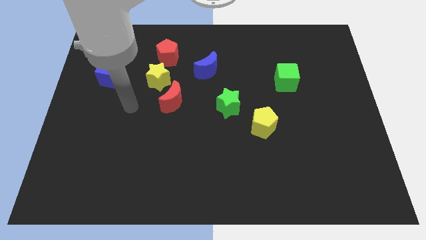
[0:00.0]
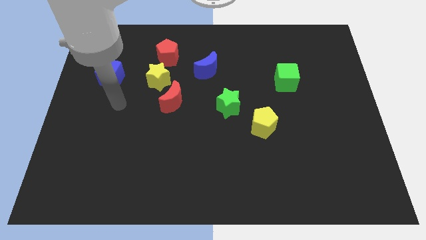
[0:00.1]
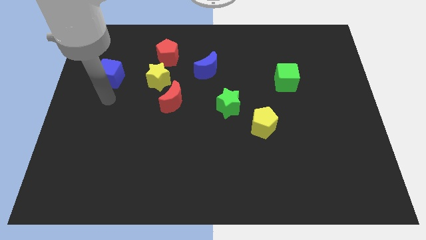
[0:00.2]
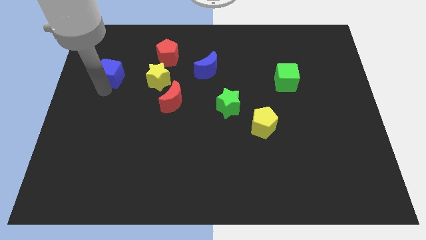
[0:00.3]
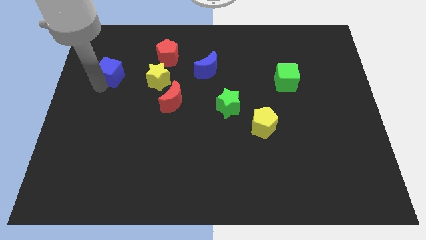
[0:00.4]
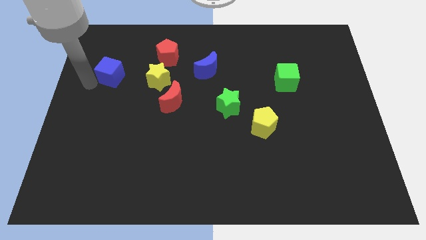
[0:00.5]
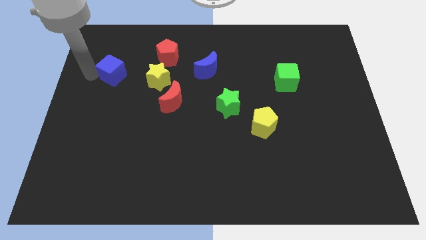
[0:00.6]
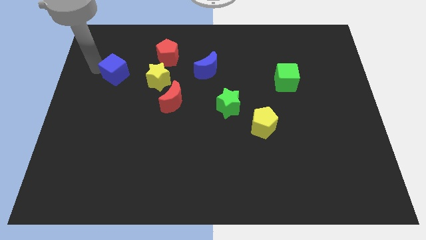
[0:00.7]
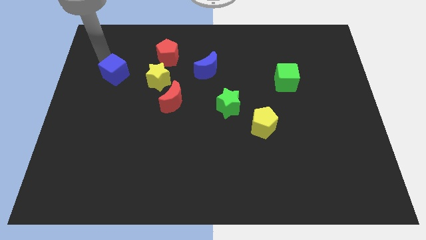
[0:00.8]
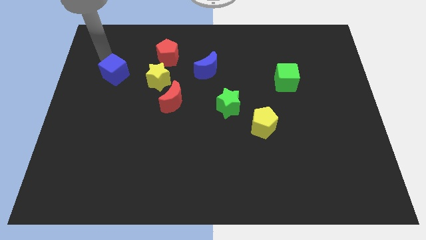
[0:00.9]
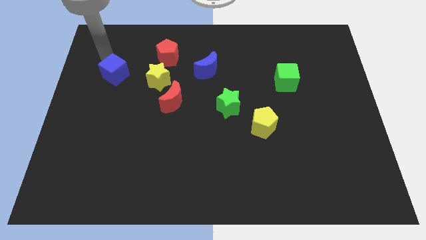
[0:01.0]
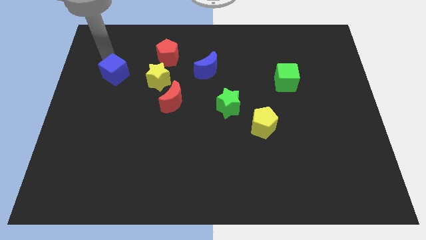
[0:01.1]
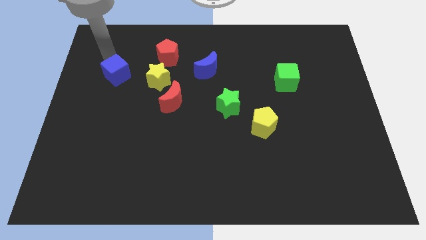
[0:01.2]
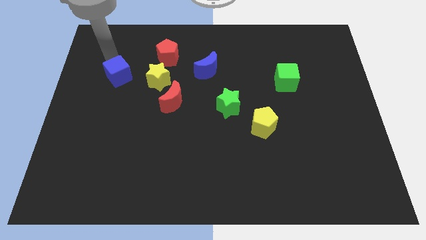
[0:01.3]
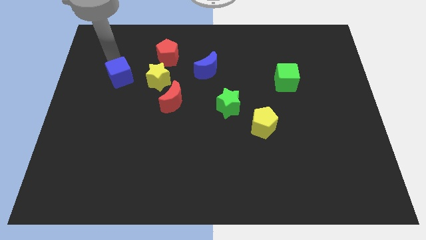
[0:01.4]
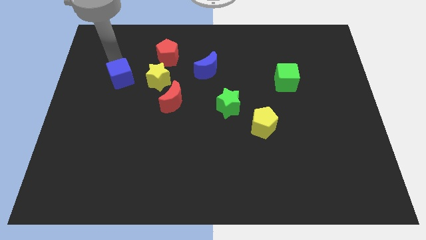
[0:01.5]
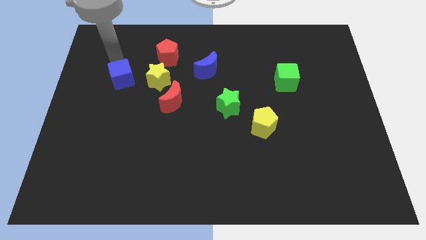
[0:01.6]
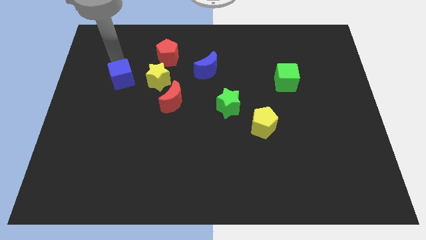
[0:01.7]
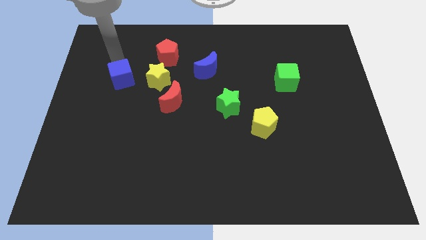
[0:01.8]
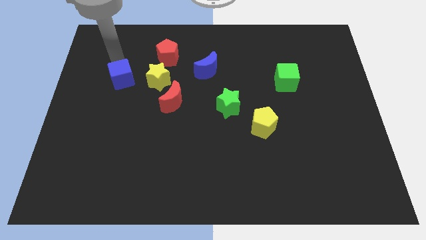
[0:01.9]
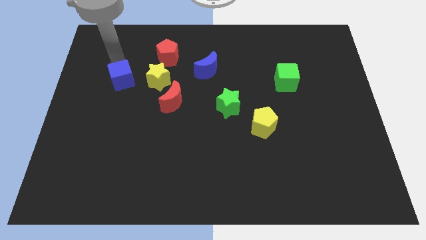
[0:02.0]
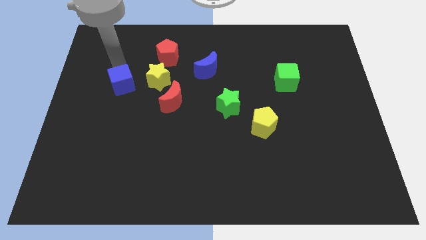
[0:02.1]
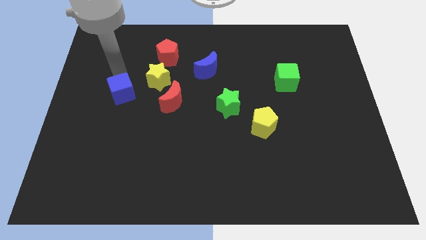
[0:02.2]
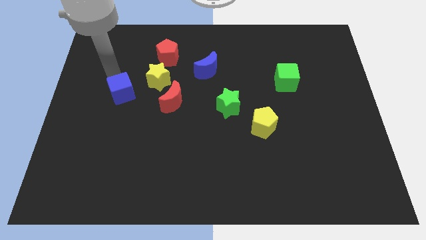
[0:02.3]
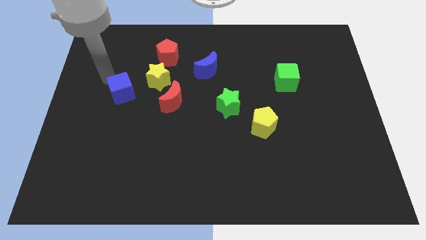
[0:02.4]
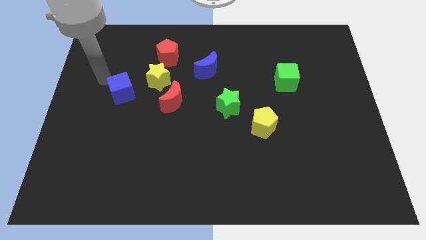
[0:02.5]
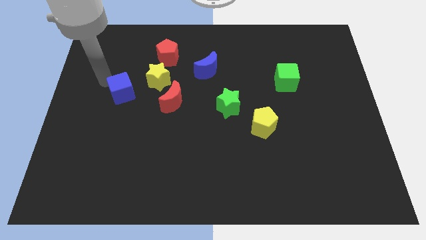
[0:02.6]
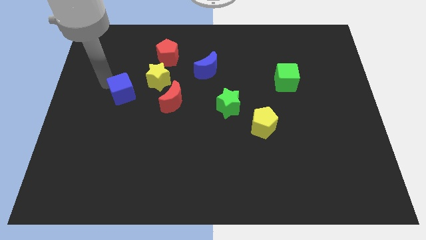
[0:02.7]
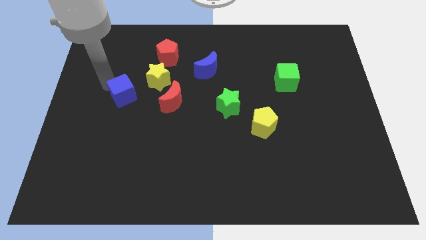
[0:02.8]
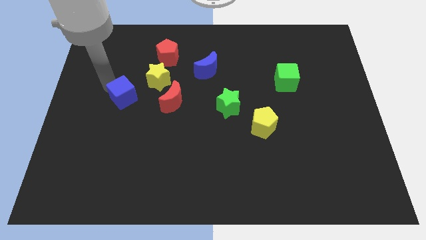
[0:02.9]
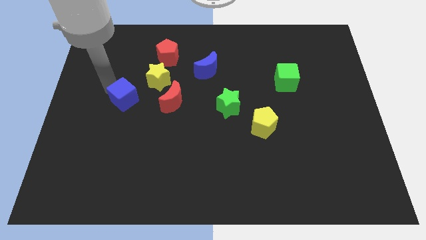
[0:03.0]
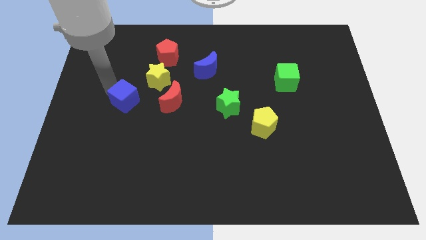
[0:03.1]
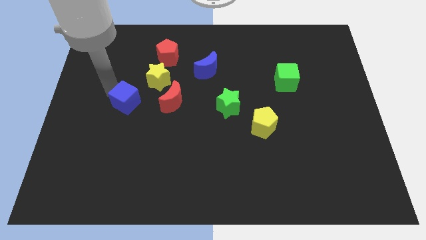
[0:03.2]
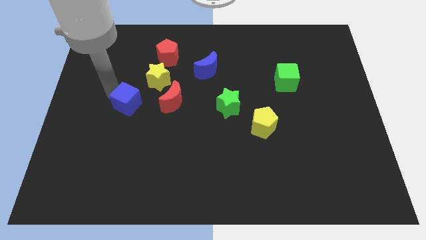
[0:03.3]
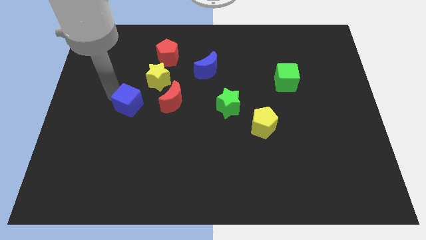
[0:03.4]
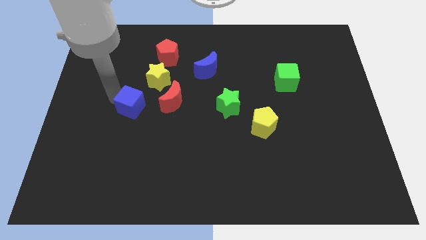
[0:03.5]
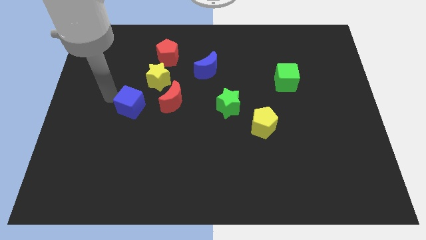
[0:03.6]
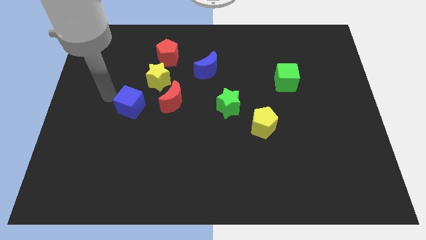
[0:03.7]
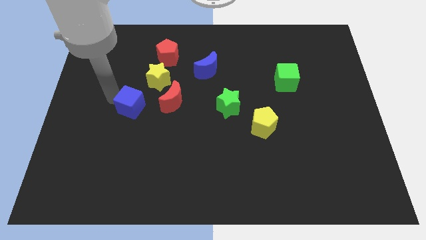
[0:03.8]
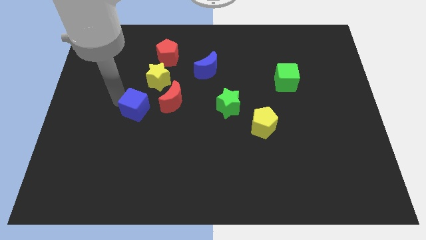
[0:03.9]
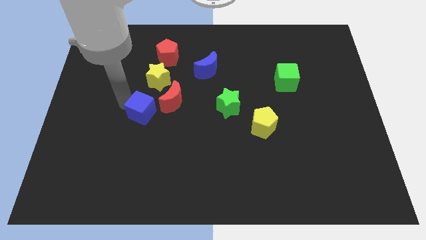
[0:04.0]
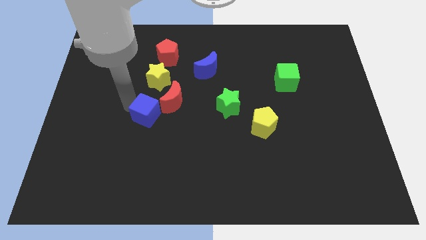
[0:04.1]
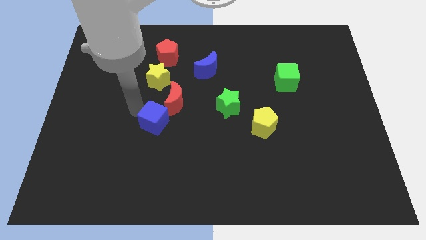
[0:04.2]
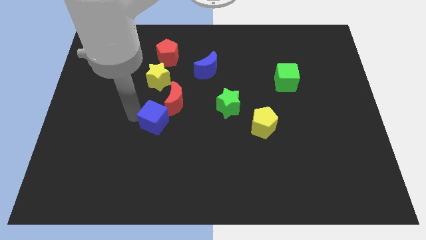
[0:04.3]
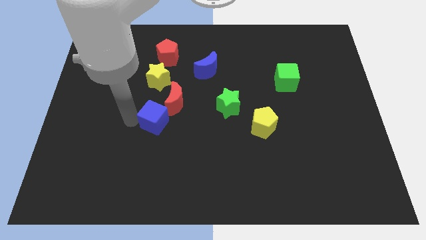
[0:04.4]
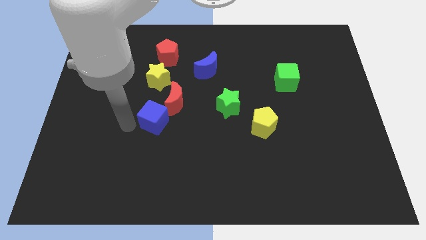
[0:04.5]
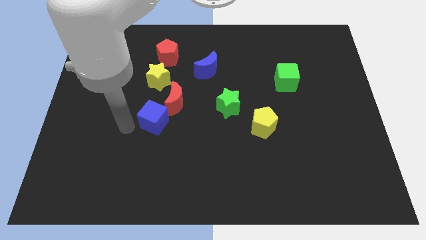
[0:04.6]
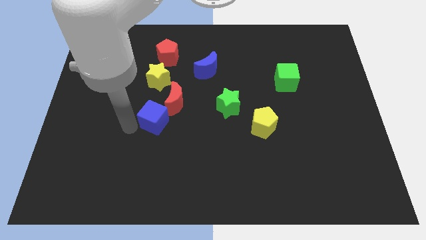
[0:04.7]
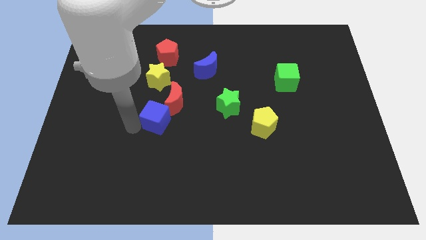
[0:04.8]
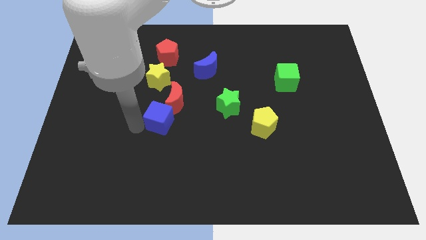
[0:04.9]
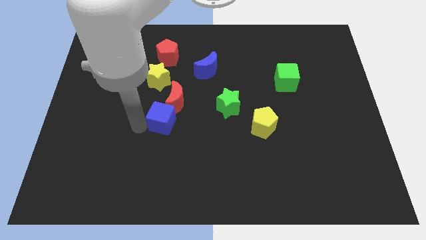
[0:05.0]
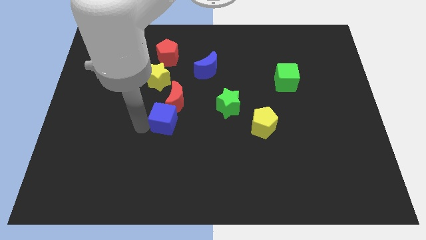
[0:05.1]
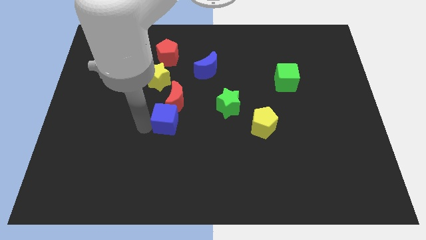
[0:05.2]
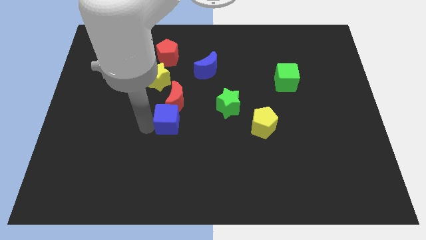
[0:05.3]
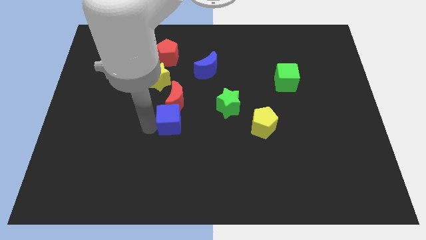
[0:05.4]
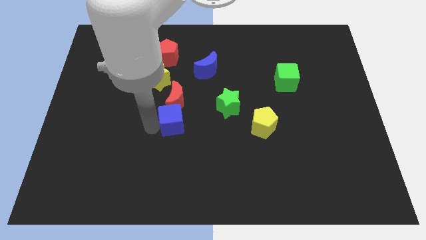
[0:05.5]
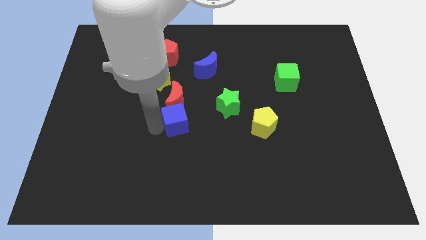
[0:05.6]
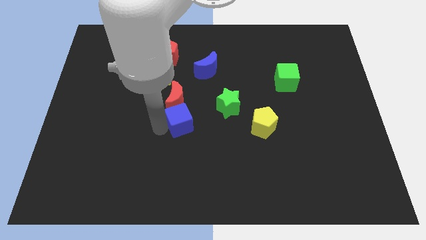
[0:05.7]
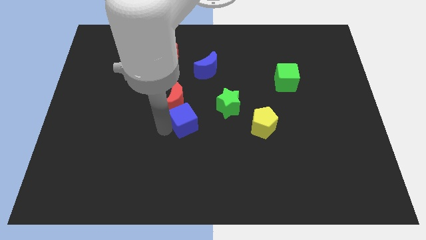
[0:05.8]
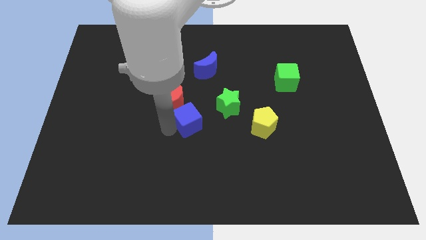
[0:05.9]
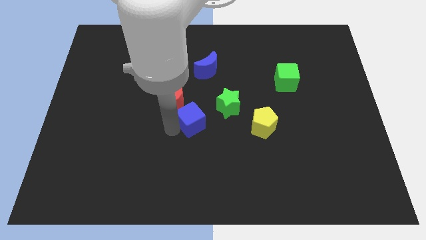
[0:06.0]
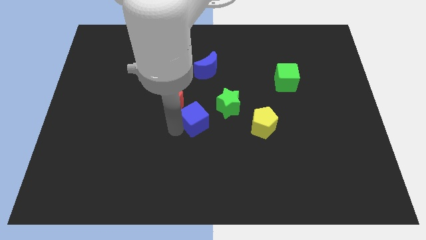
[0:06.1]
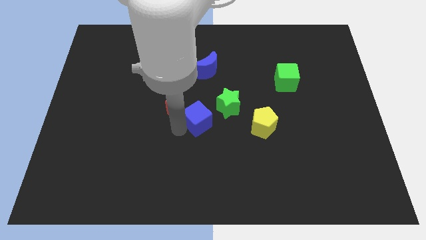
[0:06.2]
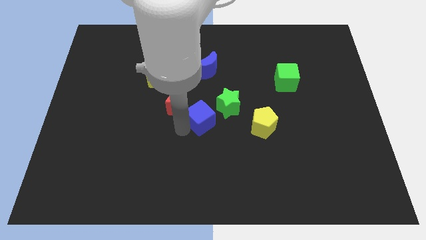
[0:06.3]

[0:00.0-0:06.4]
put the blue cube to the bottom of the blue moon

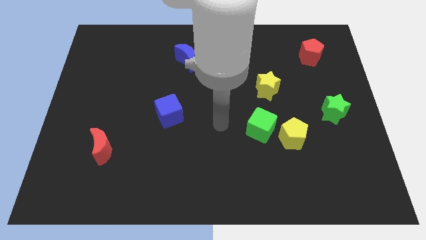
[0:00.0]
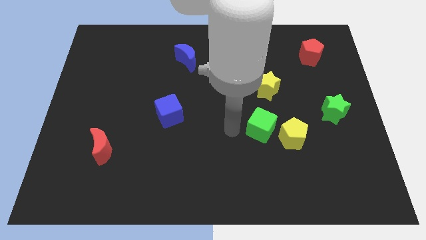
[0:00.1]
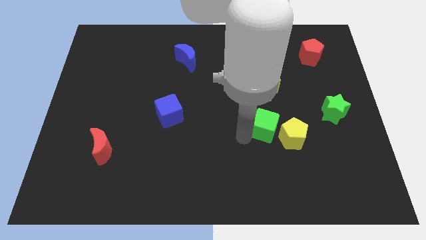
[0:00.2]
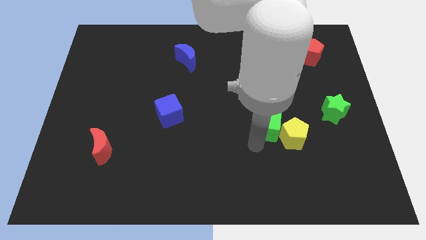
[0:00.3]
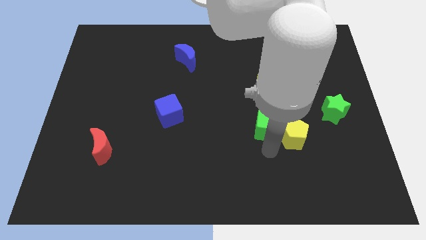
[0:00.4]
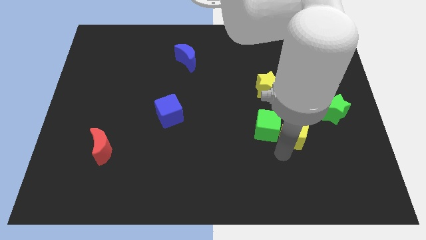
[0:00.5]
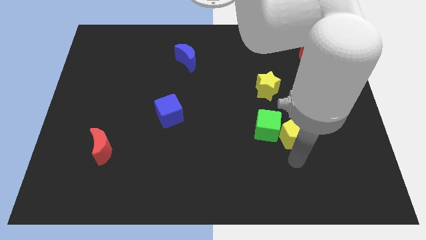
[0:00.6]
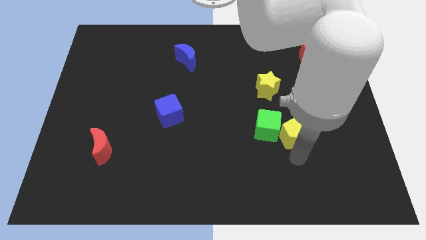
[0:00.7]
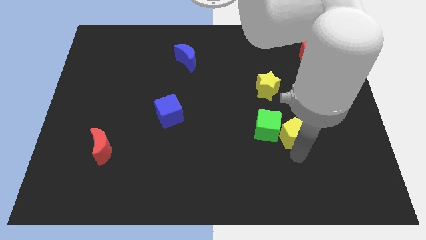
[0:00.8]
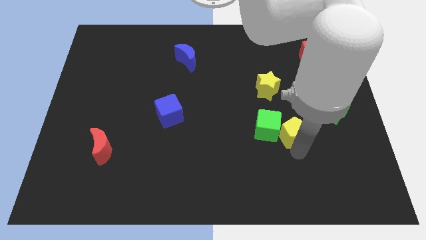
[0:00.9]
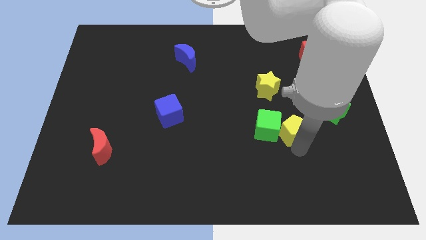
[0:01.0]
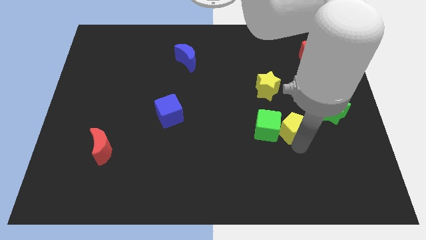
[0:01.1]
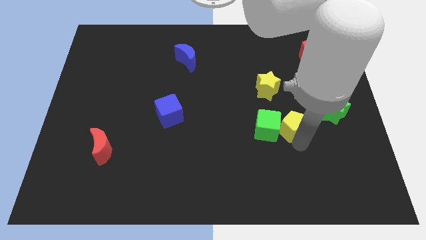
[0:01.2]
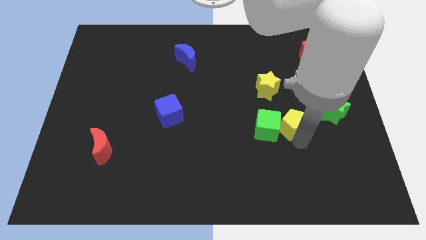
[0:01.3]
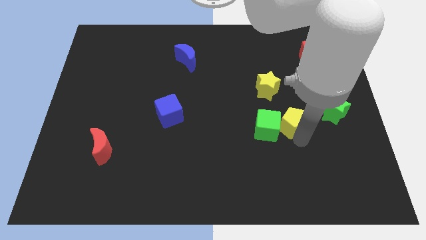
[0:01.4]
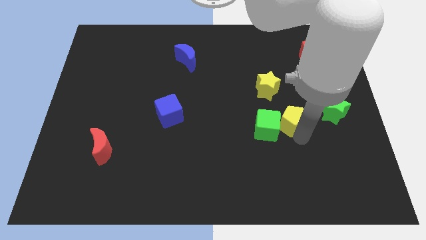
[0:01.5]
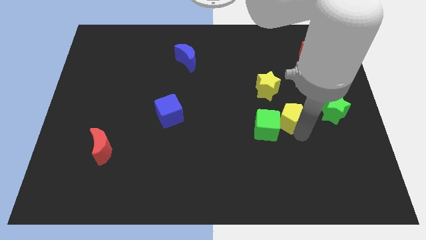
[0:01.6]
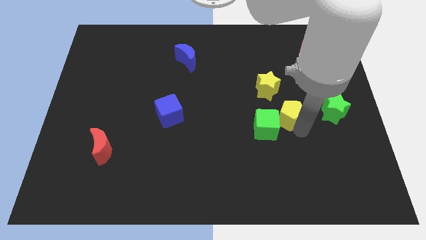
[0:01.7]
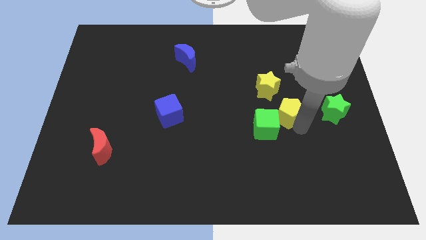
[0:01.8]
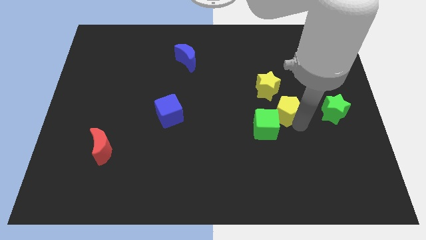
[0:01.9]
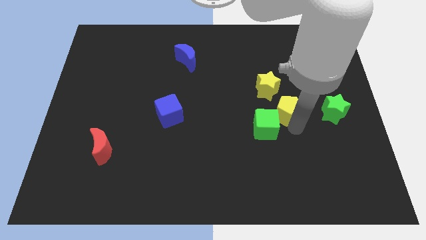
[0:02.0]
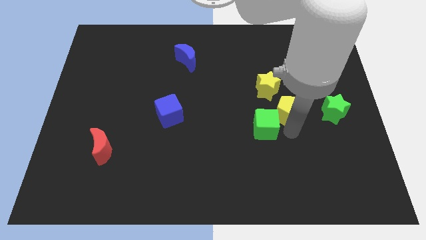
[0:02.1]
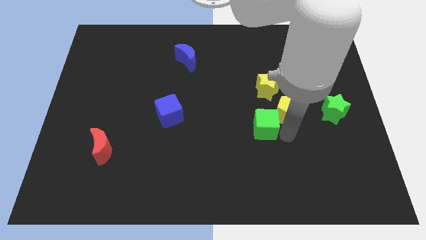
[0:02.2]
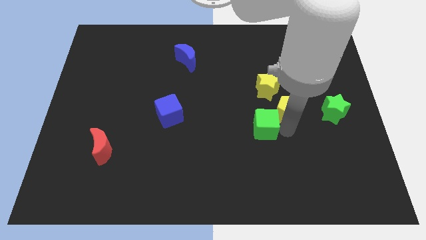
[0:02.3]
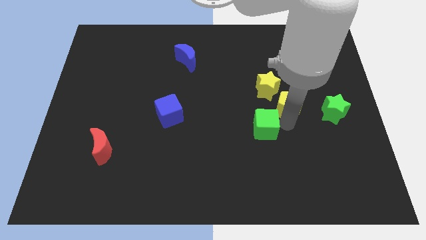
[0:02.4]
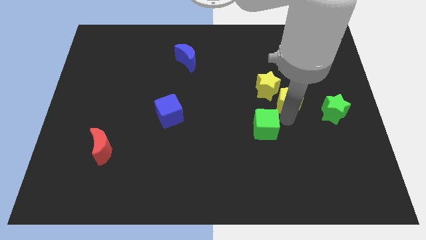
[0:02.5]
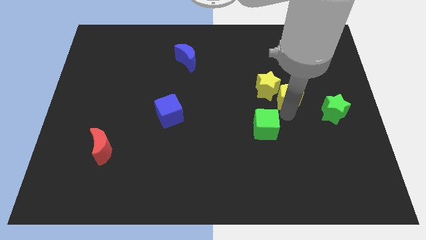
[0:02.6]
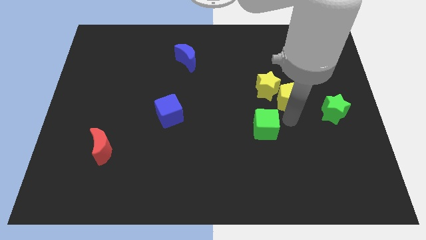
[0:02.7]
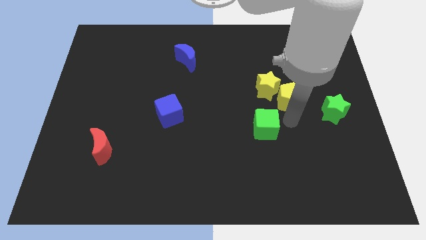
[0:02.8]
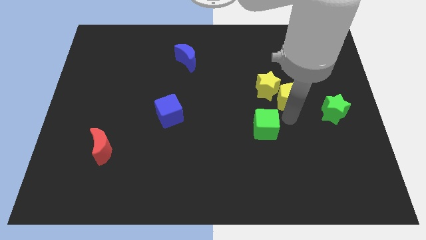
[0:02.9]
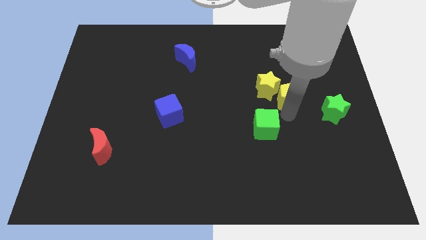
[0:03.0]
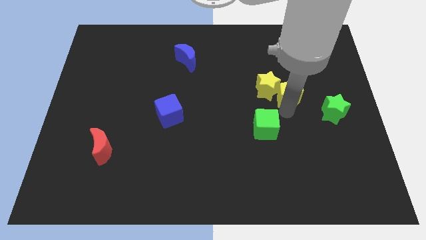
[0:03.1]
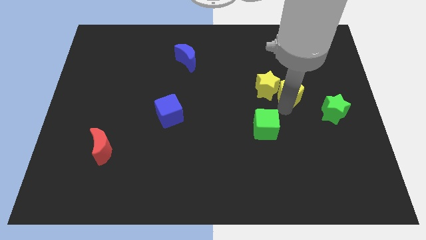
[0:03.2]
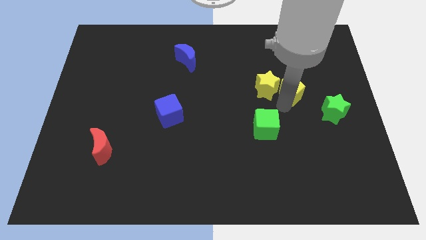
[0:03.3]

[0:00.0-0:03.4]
move the yellow pentagon to the top right side of the yellow star
